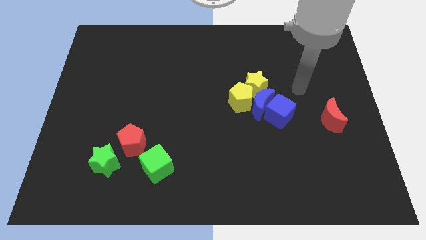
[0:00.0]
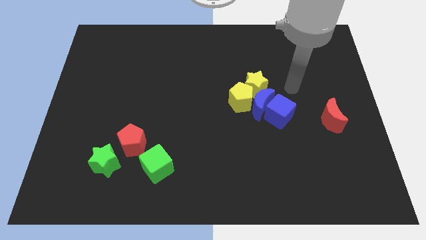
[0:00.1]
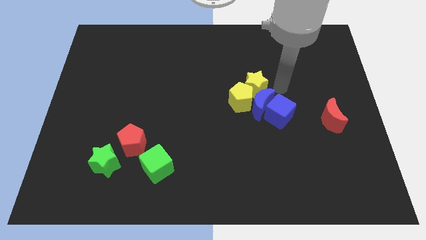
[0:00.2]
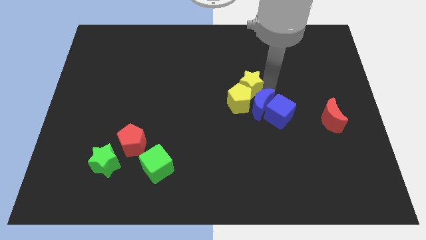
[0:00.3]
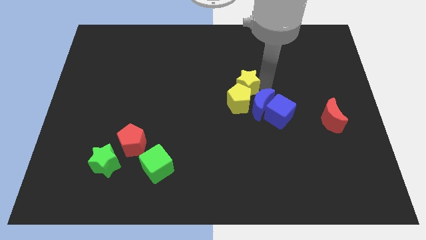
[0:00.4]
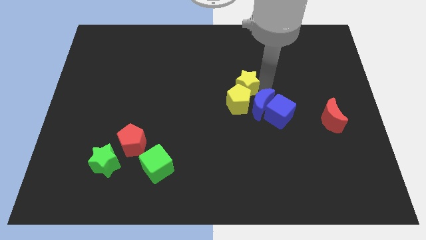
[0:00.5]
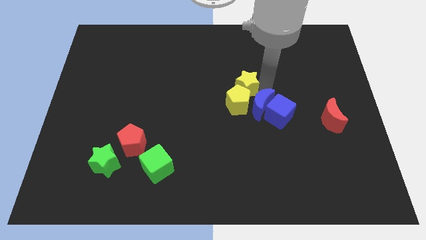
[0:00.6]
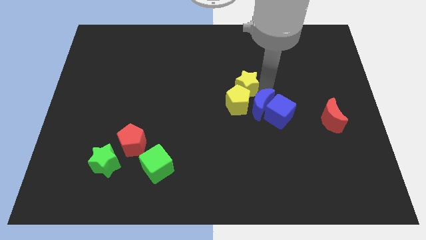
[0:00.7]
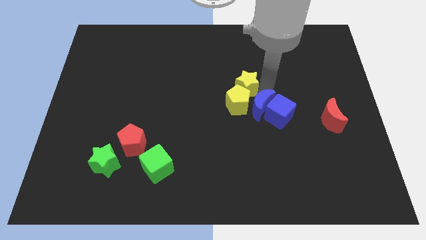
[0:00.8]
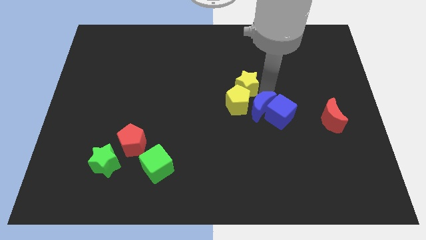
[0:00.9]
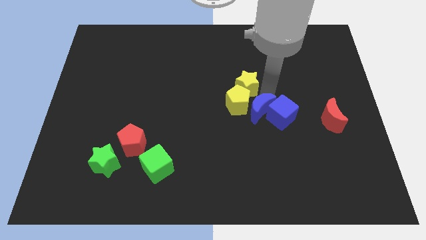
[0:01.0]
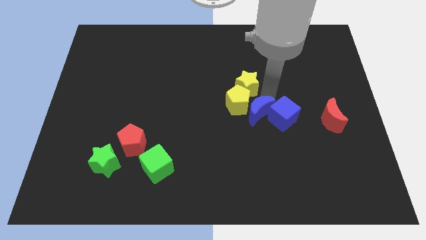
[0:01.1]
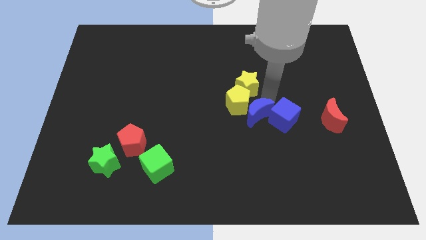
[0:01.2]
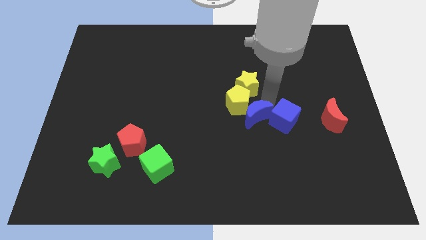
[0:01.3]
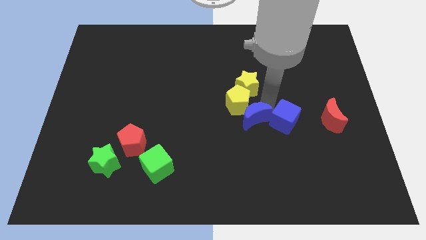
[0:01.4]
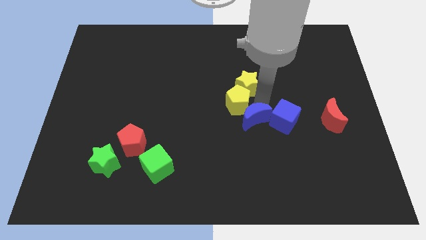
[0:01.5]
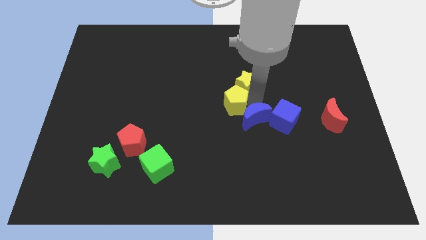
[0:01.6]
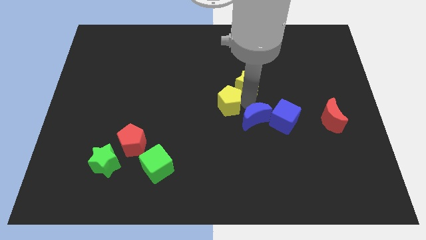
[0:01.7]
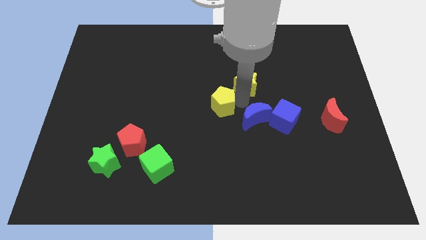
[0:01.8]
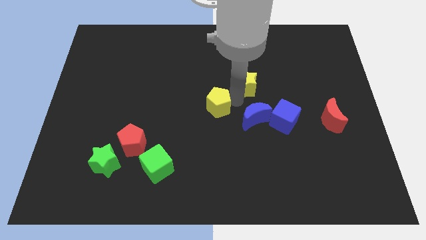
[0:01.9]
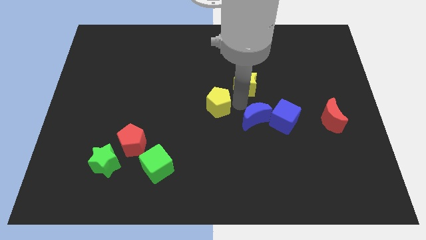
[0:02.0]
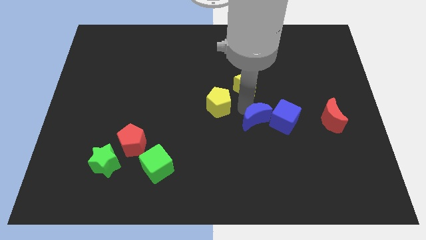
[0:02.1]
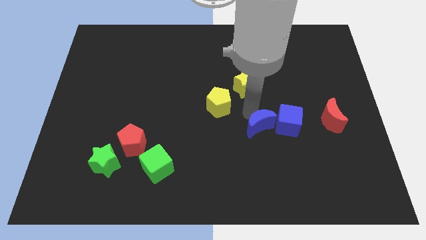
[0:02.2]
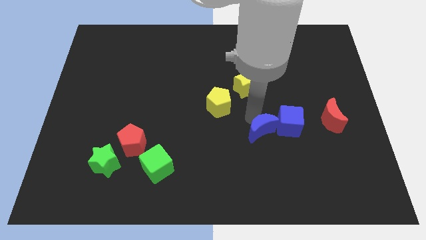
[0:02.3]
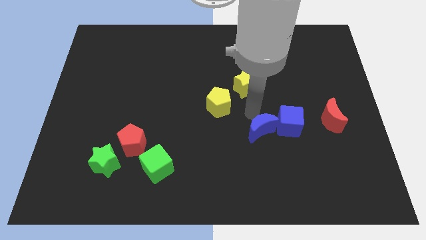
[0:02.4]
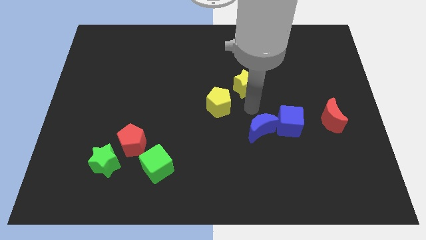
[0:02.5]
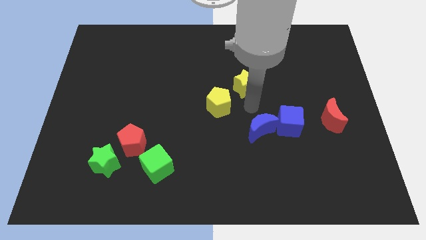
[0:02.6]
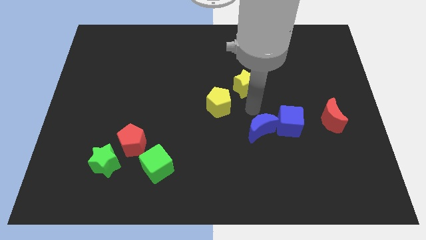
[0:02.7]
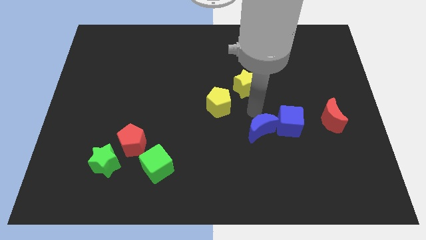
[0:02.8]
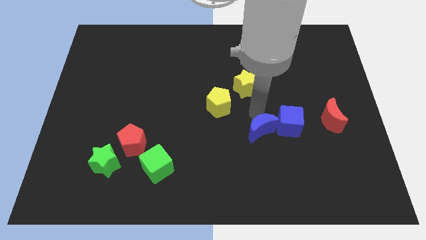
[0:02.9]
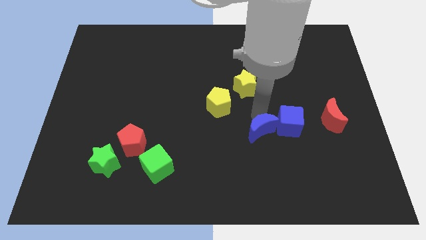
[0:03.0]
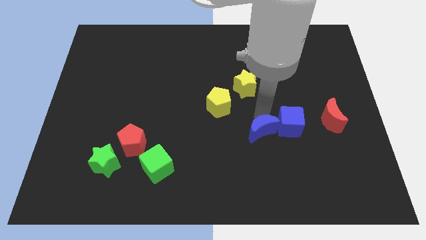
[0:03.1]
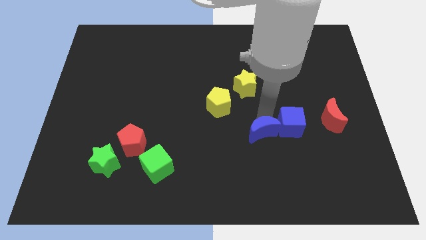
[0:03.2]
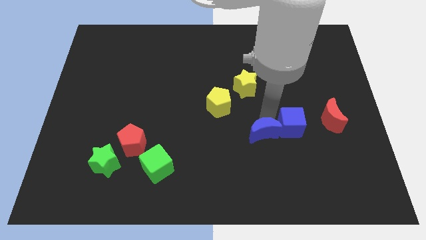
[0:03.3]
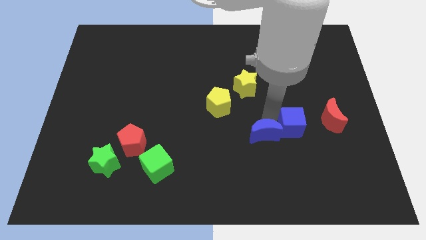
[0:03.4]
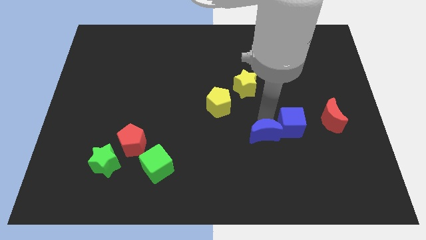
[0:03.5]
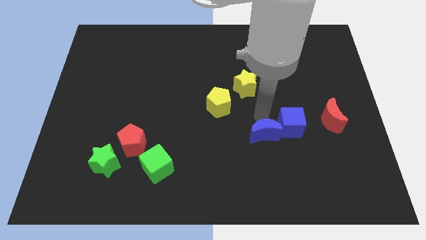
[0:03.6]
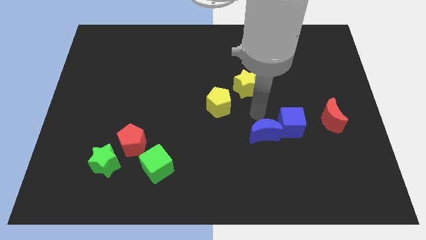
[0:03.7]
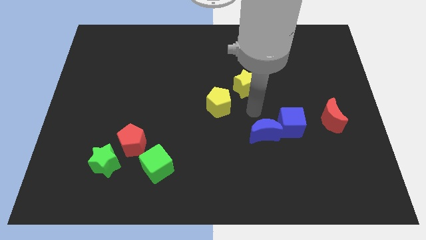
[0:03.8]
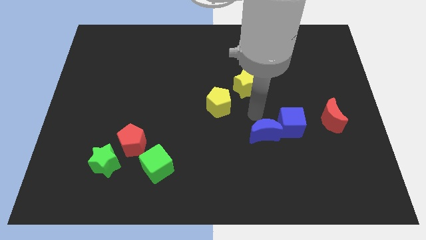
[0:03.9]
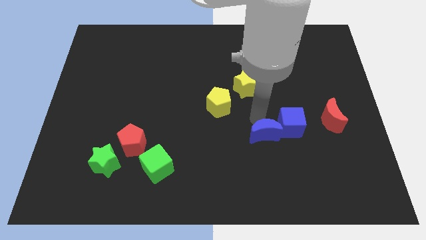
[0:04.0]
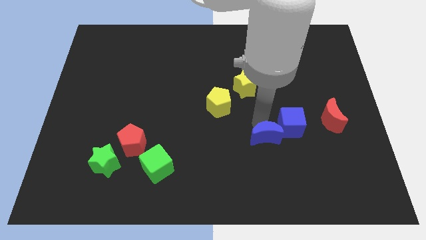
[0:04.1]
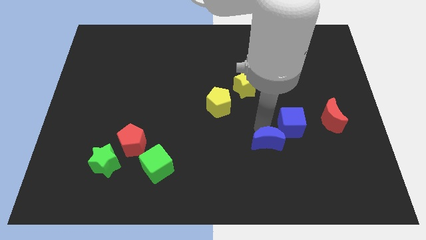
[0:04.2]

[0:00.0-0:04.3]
separate the blue moon from the blue cube, yellow pentagon, and yellow star

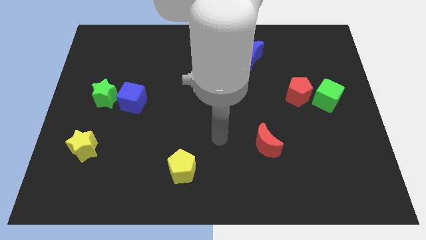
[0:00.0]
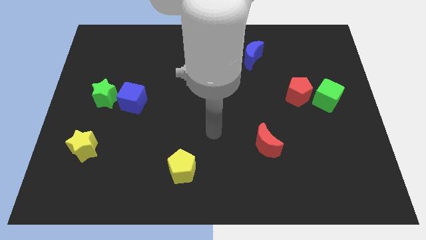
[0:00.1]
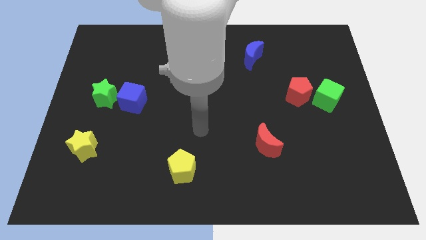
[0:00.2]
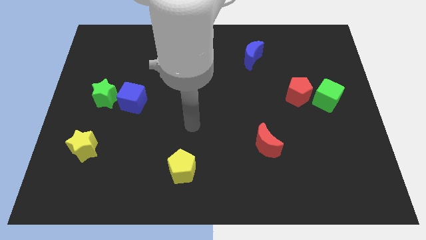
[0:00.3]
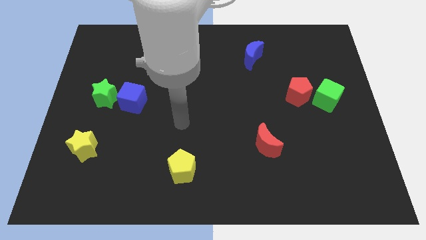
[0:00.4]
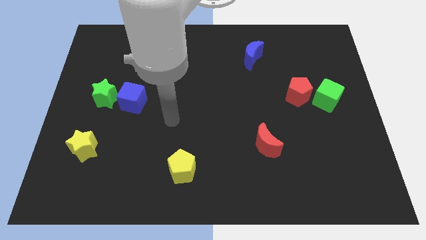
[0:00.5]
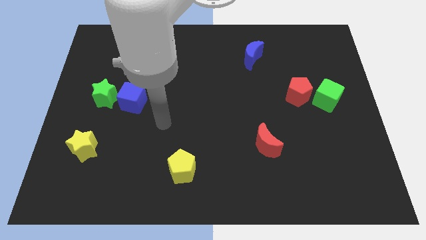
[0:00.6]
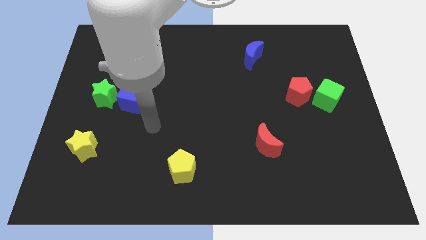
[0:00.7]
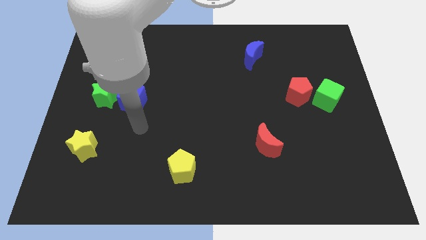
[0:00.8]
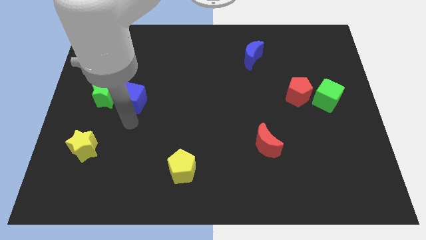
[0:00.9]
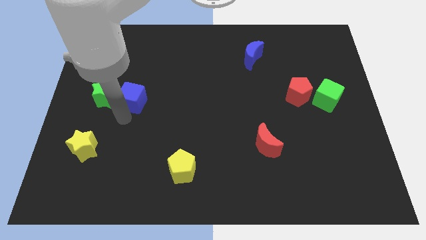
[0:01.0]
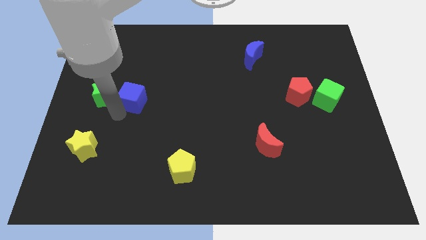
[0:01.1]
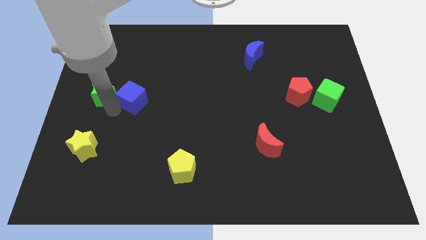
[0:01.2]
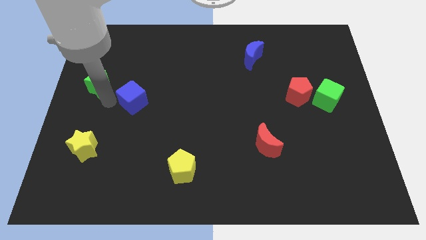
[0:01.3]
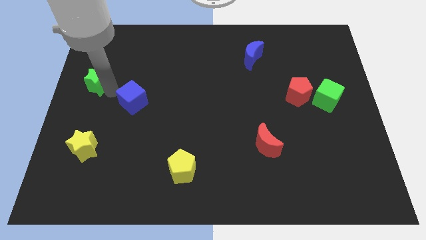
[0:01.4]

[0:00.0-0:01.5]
pull the blue cube apart from the green star

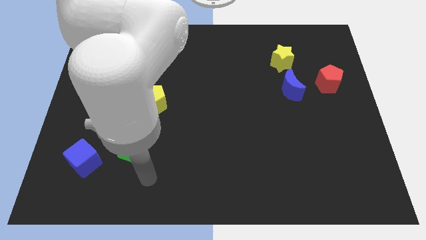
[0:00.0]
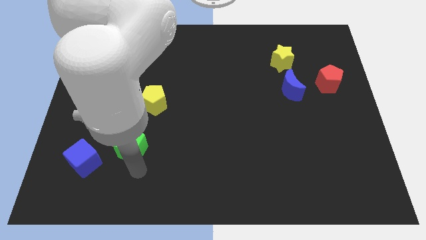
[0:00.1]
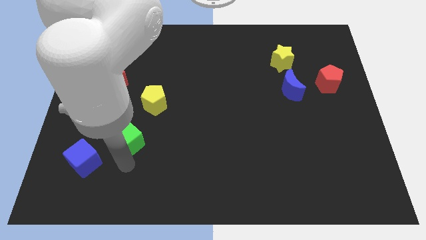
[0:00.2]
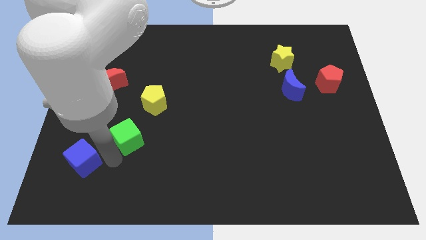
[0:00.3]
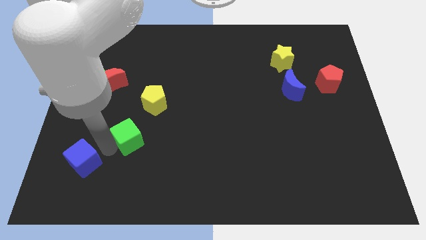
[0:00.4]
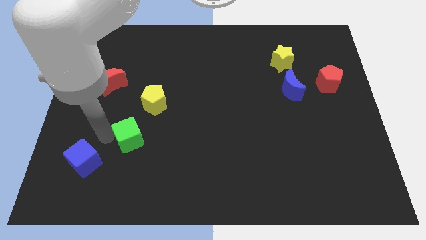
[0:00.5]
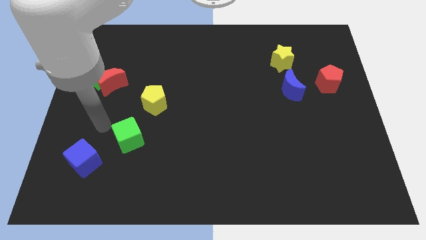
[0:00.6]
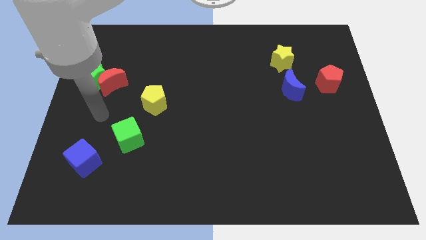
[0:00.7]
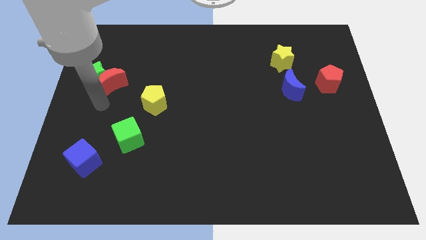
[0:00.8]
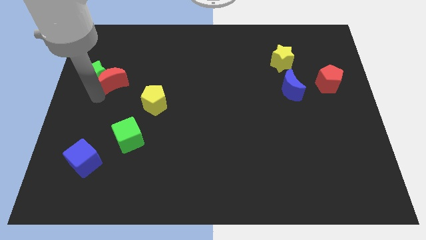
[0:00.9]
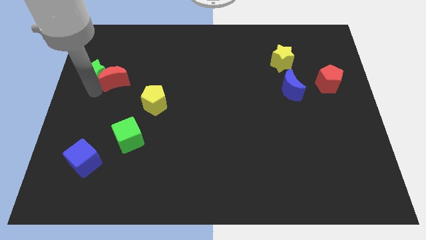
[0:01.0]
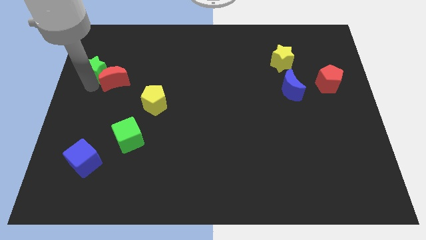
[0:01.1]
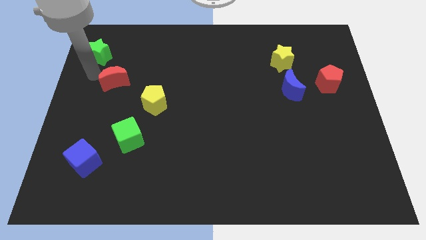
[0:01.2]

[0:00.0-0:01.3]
separate the red moon from the green star

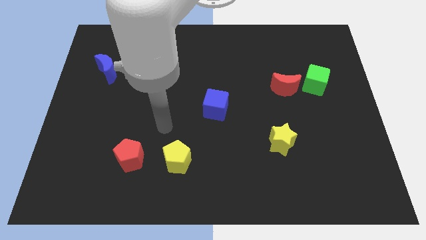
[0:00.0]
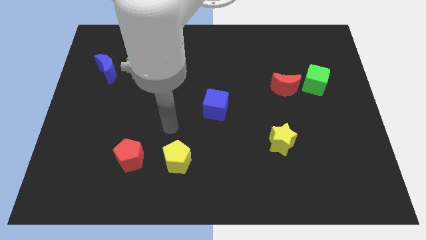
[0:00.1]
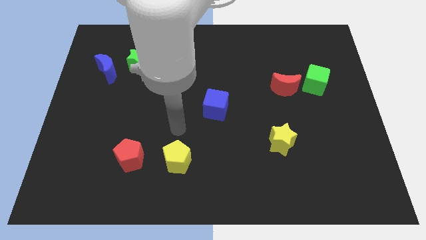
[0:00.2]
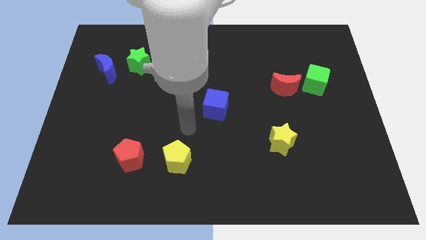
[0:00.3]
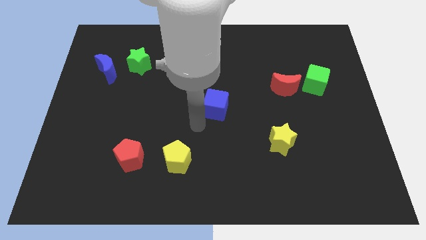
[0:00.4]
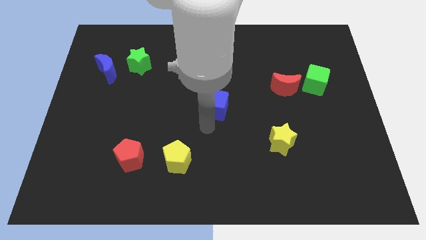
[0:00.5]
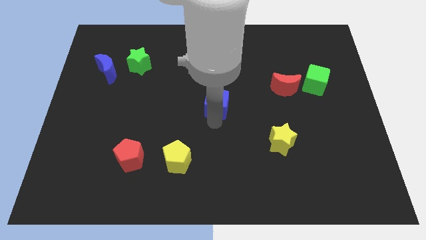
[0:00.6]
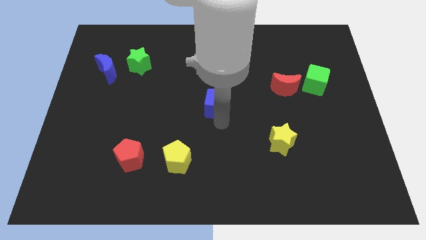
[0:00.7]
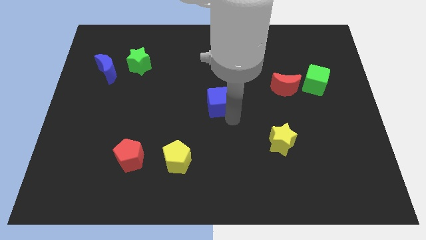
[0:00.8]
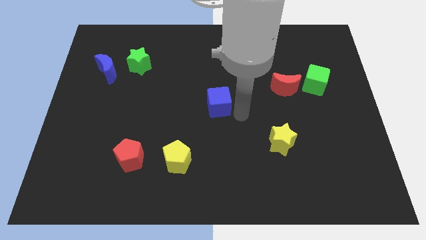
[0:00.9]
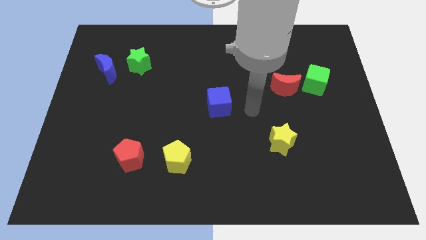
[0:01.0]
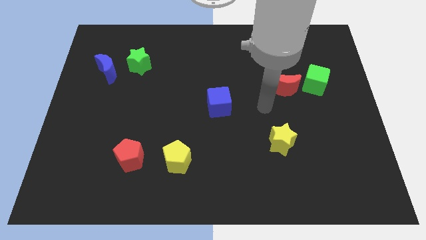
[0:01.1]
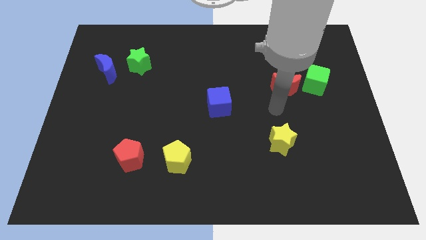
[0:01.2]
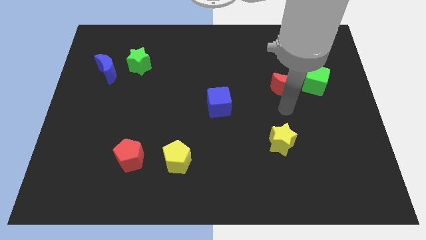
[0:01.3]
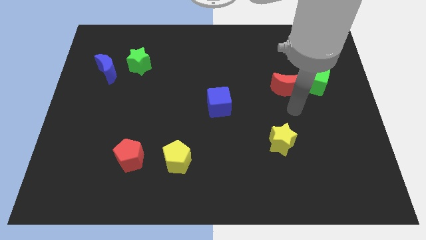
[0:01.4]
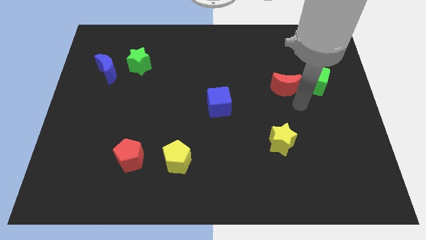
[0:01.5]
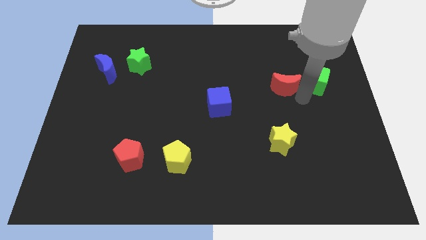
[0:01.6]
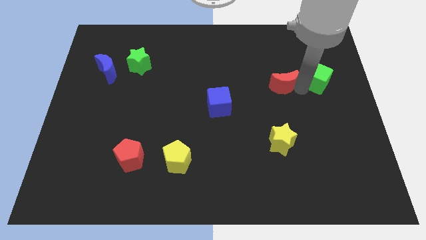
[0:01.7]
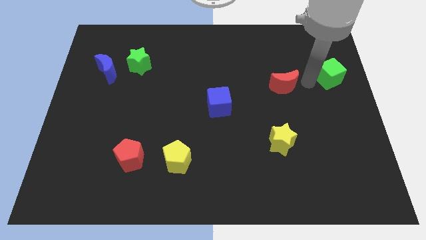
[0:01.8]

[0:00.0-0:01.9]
move the red moon away from the green cube

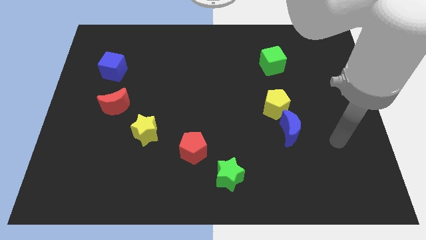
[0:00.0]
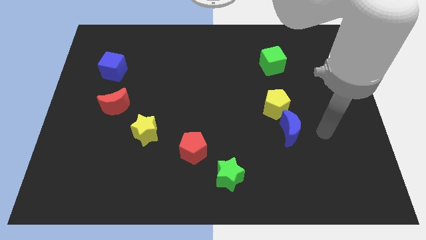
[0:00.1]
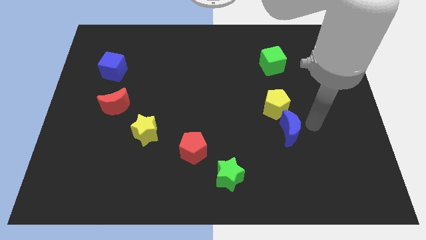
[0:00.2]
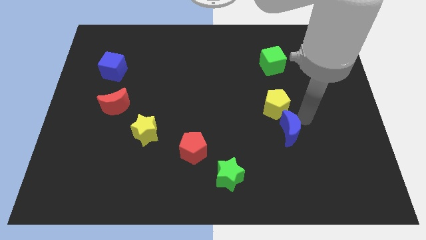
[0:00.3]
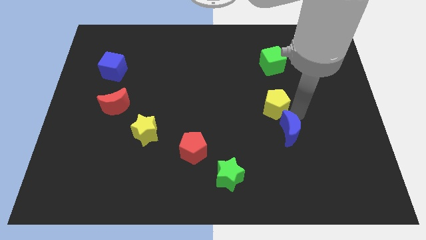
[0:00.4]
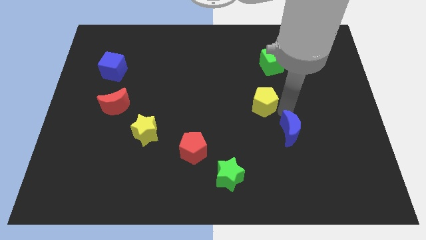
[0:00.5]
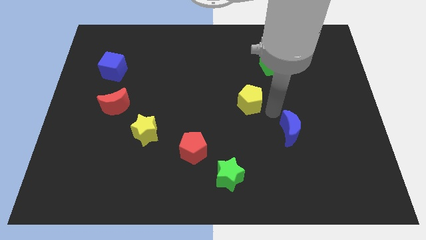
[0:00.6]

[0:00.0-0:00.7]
move the blue moon away from the yellow pentagon
